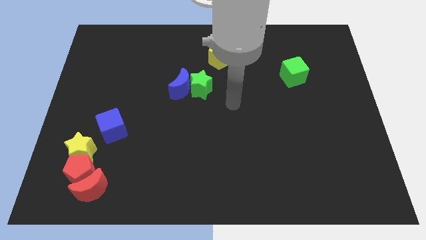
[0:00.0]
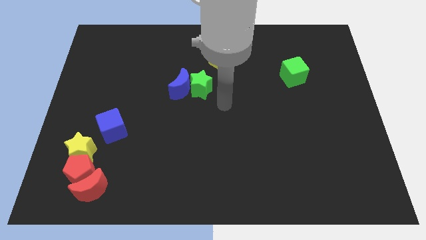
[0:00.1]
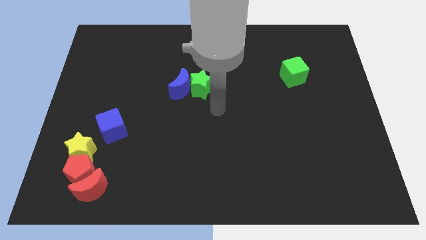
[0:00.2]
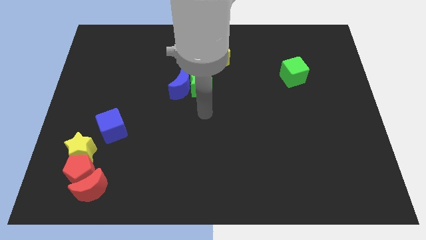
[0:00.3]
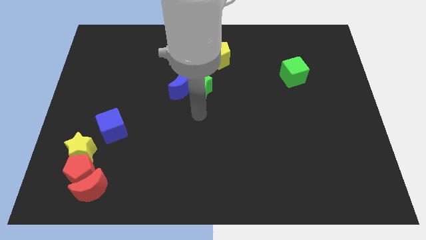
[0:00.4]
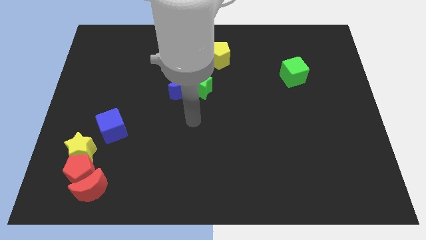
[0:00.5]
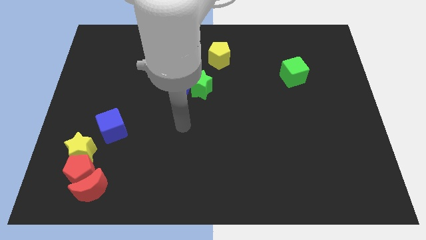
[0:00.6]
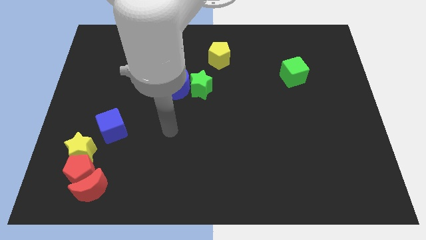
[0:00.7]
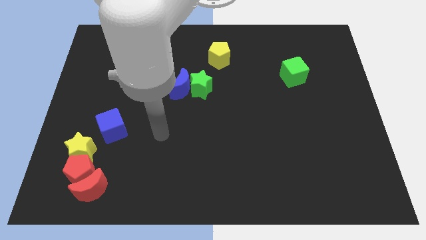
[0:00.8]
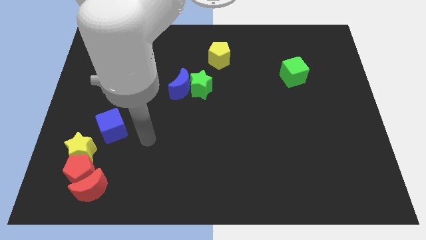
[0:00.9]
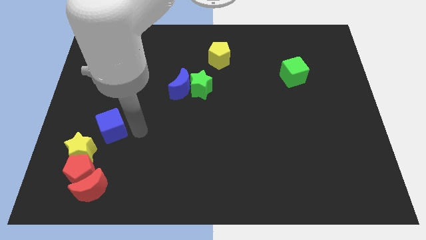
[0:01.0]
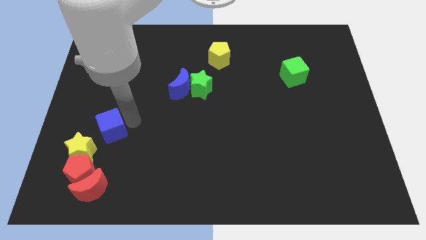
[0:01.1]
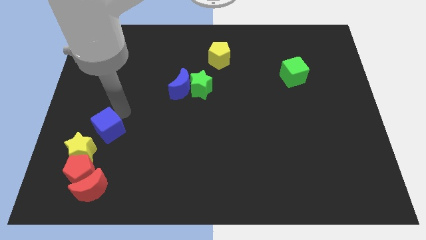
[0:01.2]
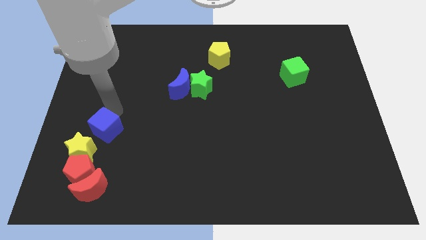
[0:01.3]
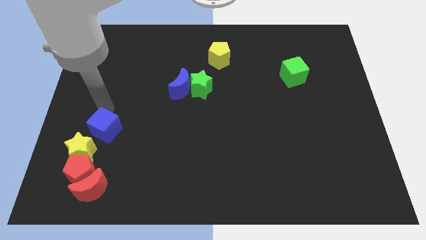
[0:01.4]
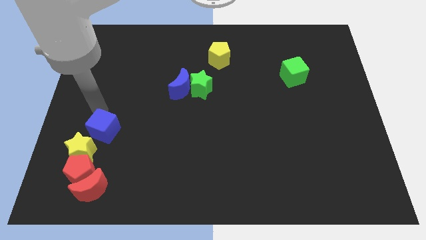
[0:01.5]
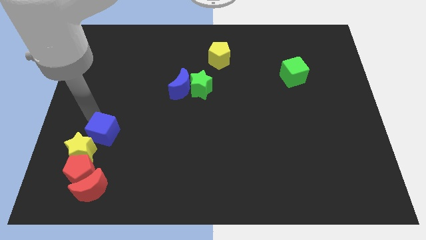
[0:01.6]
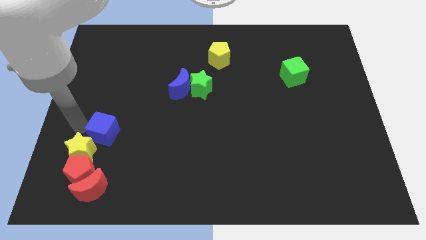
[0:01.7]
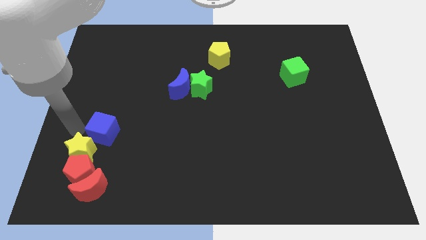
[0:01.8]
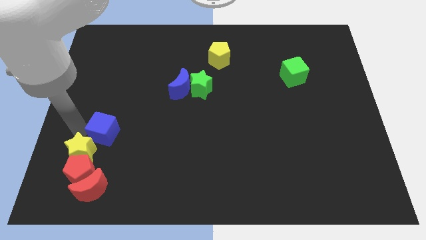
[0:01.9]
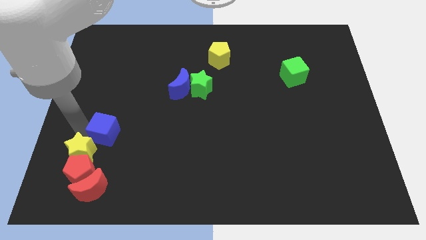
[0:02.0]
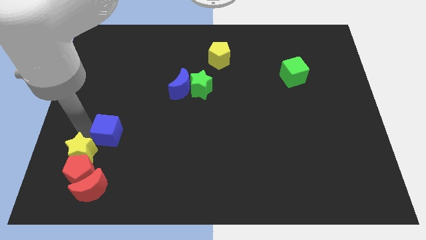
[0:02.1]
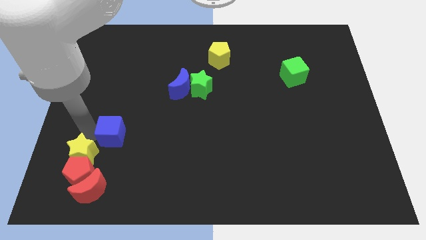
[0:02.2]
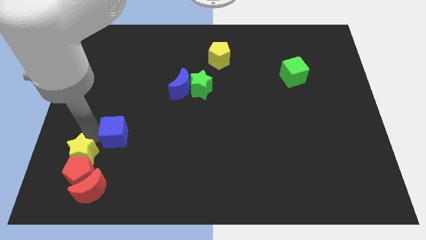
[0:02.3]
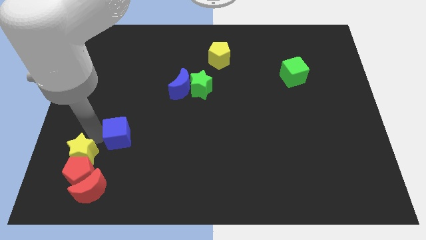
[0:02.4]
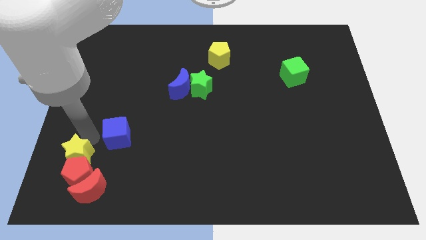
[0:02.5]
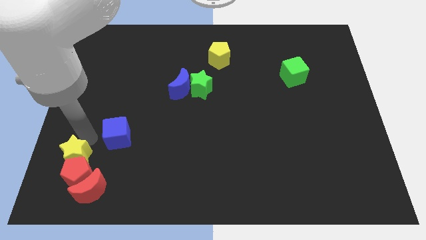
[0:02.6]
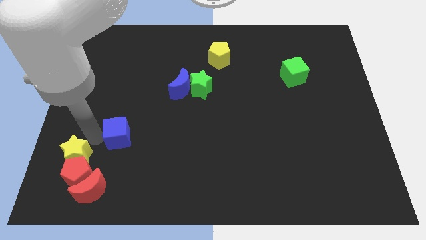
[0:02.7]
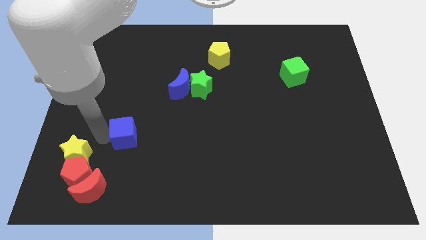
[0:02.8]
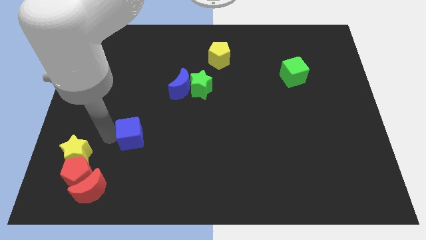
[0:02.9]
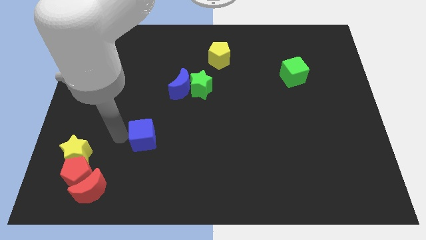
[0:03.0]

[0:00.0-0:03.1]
slightly push the blue cube right

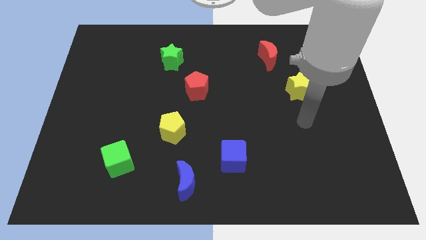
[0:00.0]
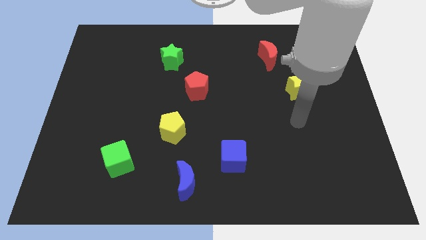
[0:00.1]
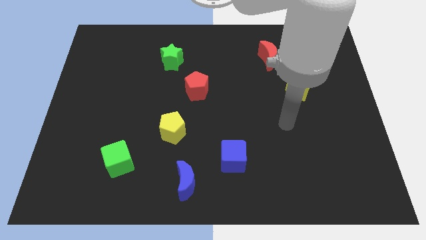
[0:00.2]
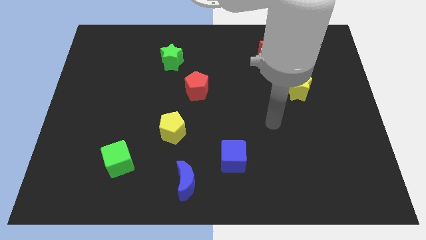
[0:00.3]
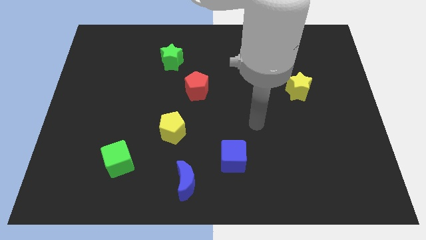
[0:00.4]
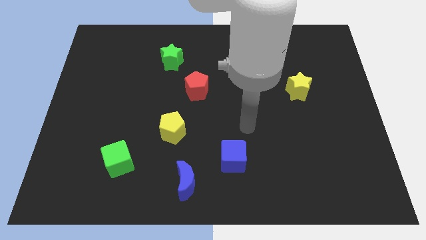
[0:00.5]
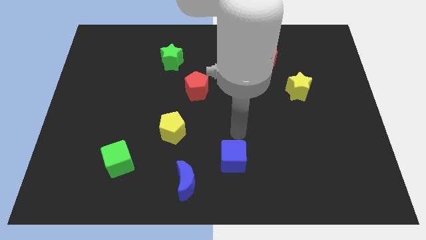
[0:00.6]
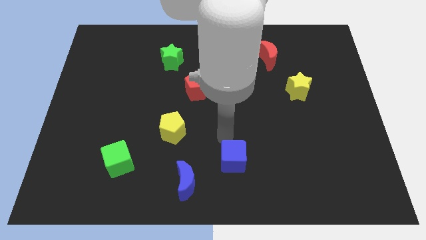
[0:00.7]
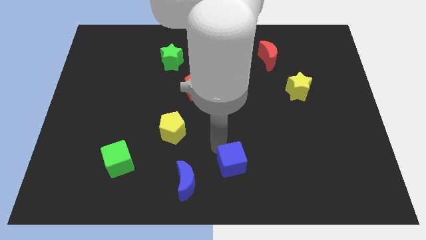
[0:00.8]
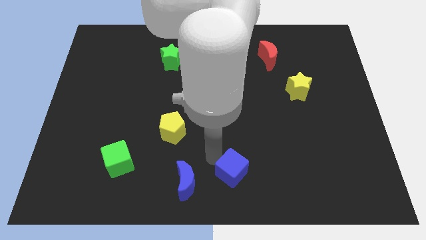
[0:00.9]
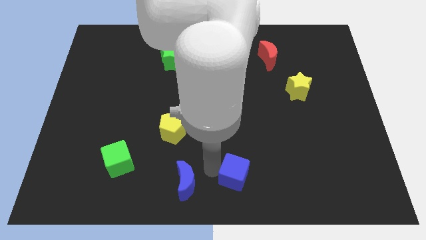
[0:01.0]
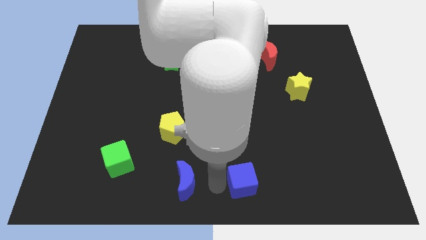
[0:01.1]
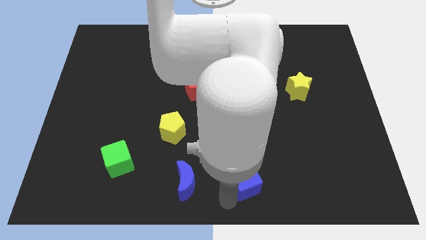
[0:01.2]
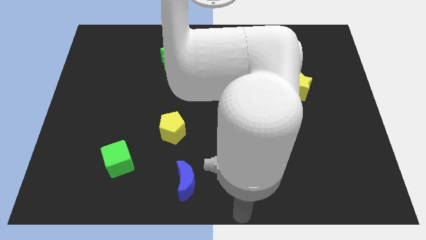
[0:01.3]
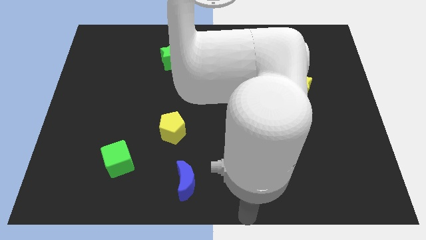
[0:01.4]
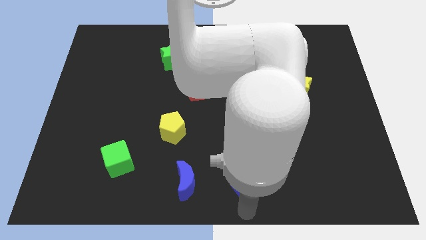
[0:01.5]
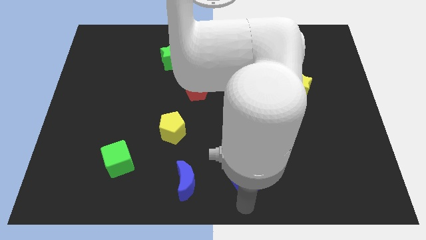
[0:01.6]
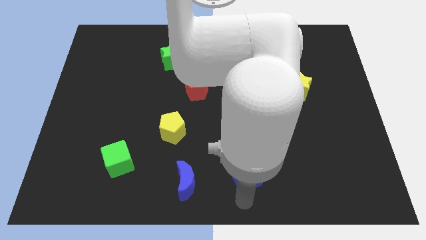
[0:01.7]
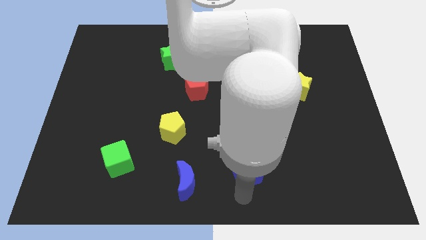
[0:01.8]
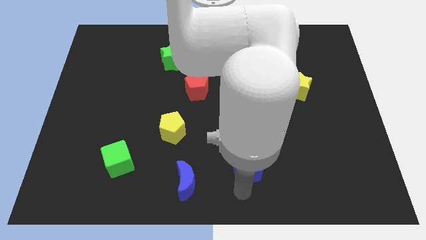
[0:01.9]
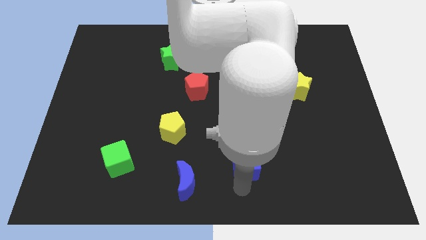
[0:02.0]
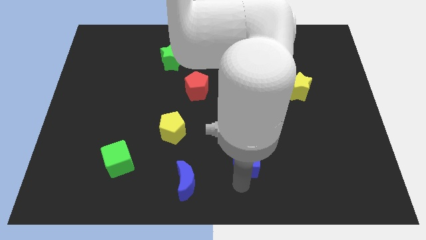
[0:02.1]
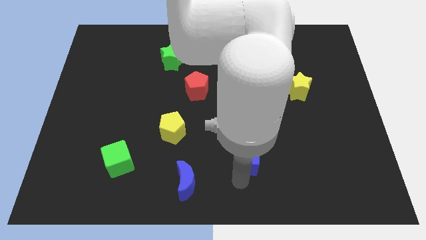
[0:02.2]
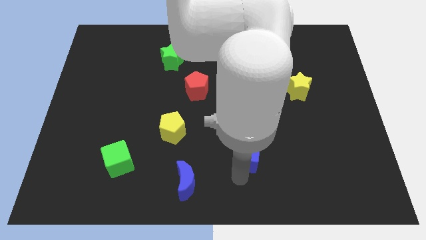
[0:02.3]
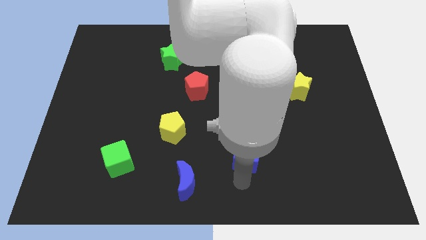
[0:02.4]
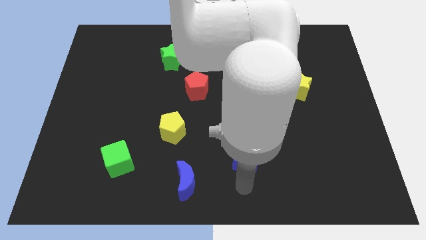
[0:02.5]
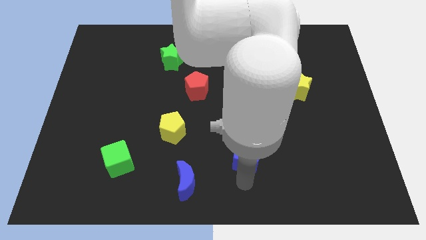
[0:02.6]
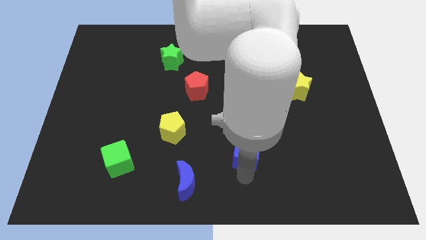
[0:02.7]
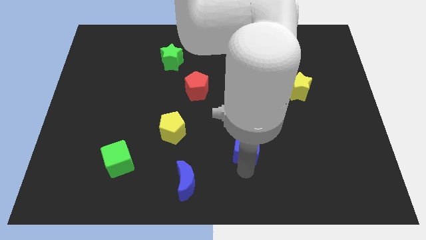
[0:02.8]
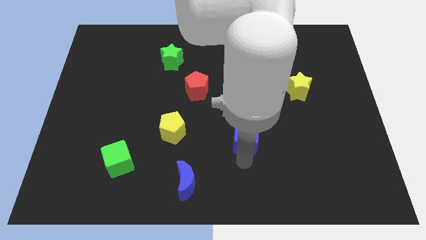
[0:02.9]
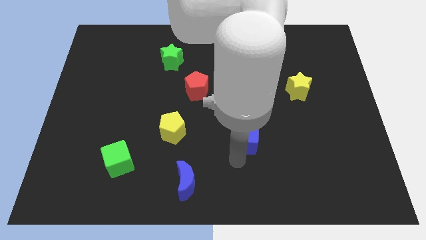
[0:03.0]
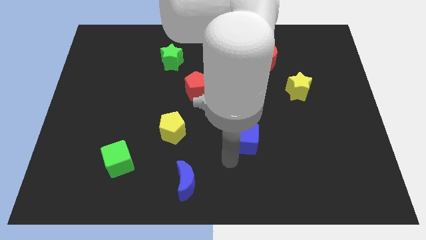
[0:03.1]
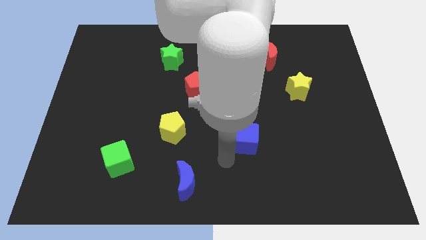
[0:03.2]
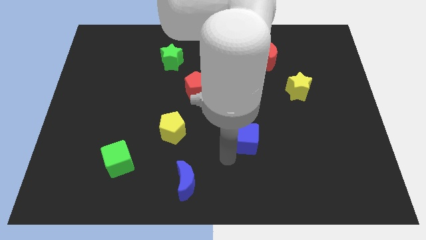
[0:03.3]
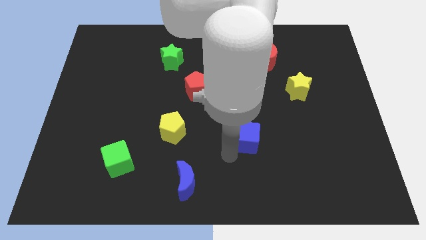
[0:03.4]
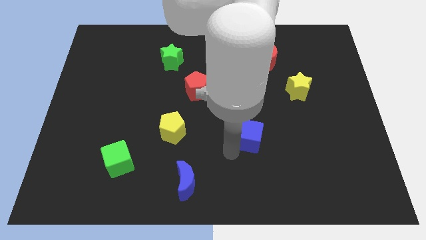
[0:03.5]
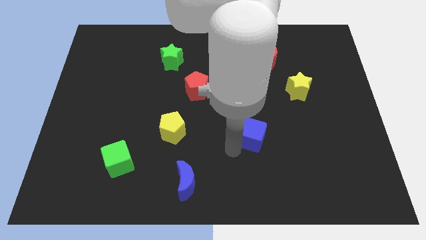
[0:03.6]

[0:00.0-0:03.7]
slightly slide the blue cube up and right

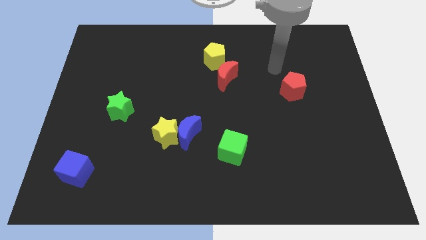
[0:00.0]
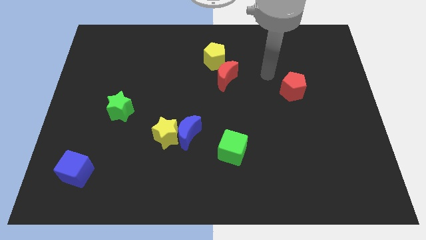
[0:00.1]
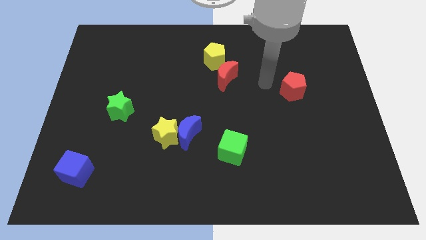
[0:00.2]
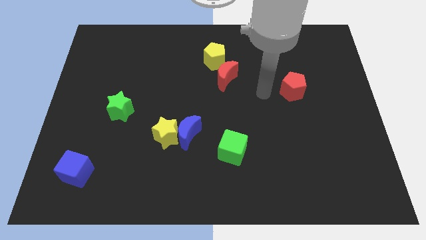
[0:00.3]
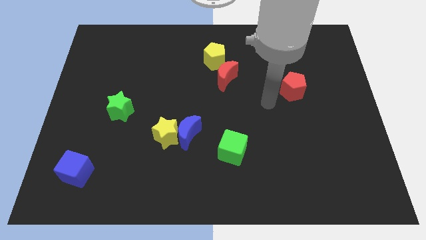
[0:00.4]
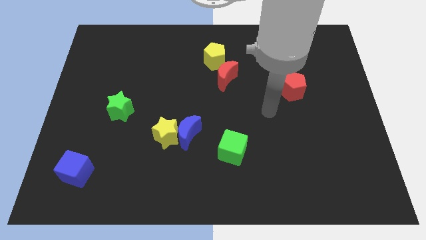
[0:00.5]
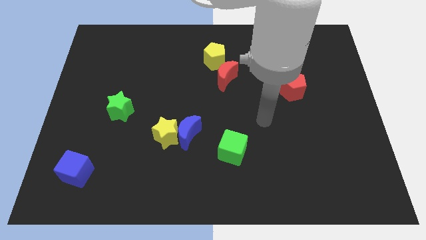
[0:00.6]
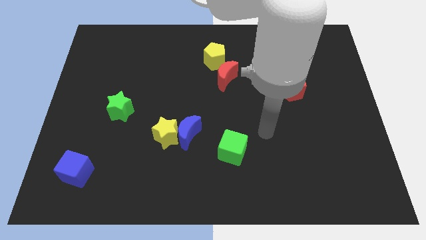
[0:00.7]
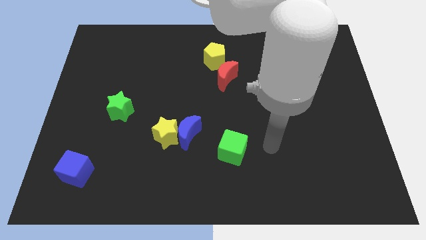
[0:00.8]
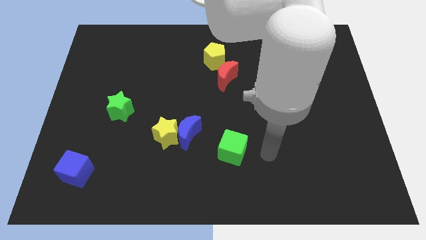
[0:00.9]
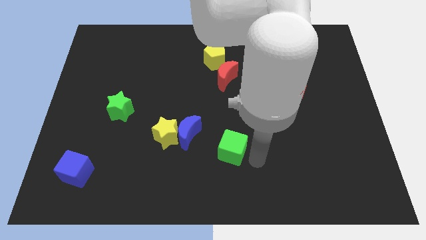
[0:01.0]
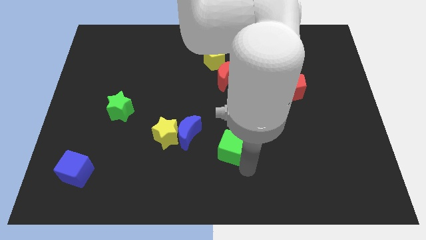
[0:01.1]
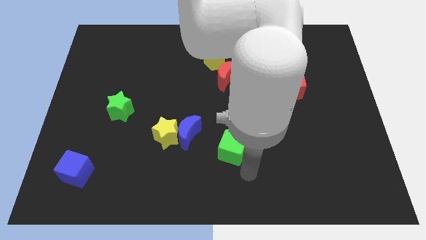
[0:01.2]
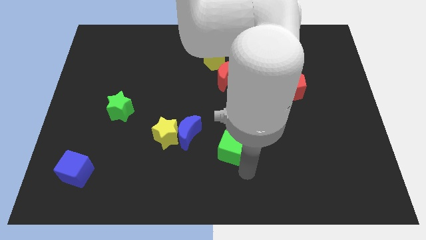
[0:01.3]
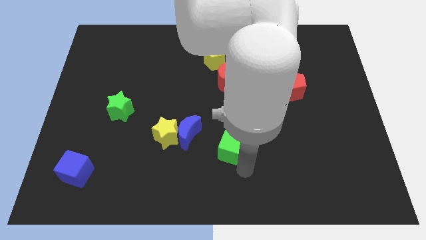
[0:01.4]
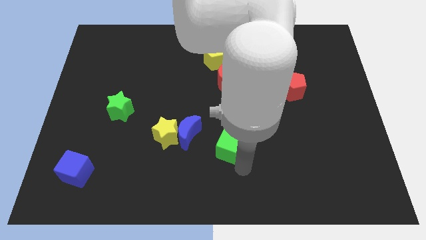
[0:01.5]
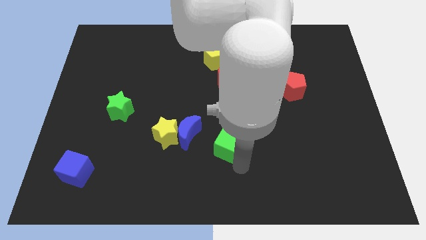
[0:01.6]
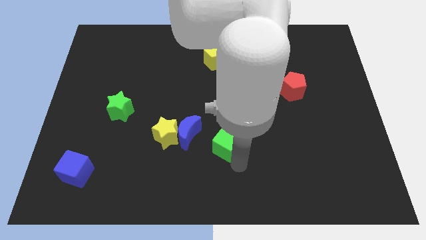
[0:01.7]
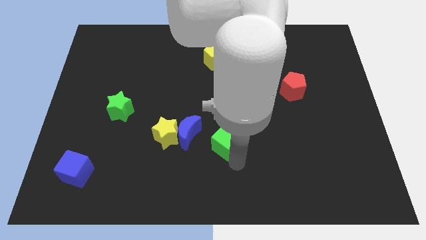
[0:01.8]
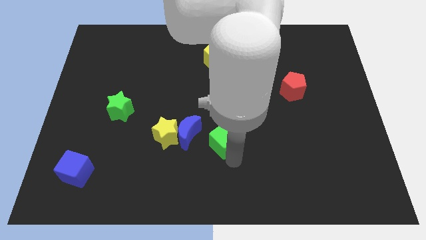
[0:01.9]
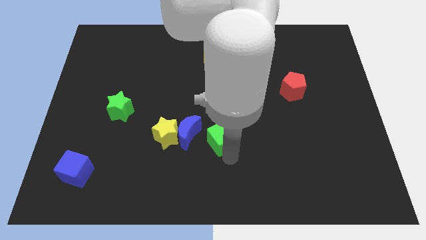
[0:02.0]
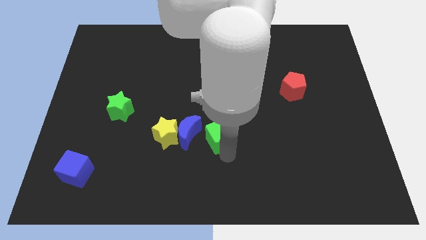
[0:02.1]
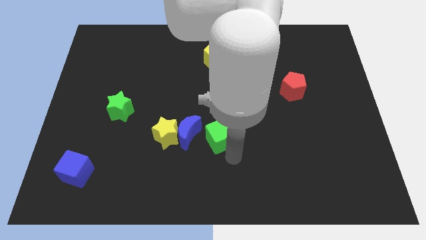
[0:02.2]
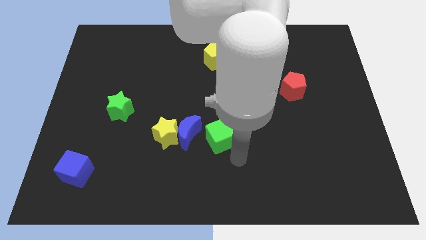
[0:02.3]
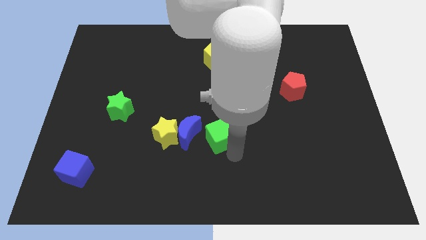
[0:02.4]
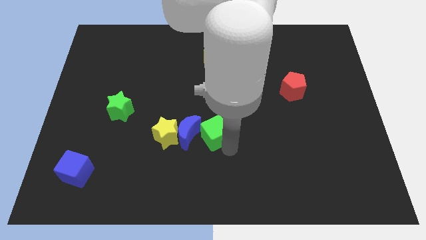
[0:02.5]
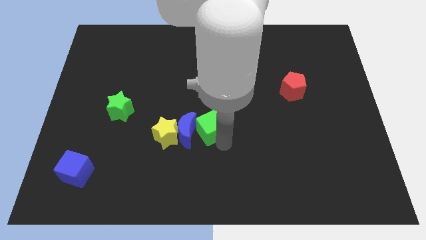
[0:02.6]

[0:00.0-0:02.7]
push the green cube up and left diagonally slightly
